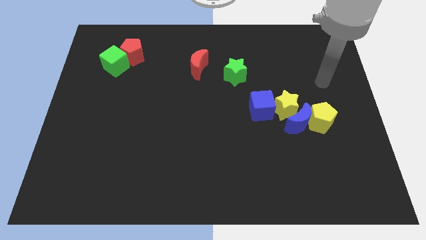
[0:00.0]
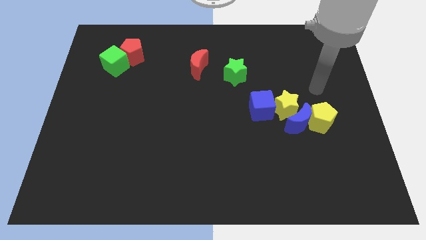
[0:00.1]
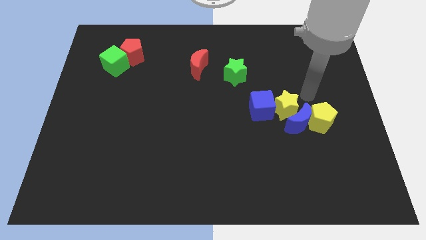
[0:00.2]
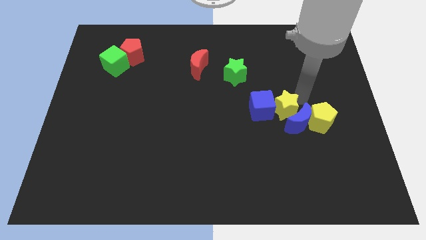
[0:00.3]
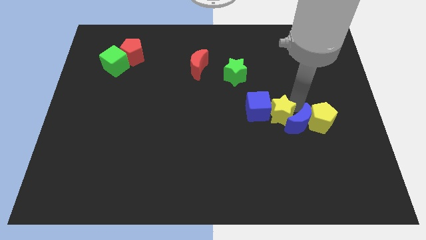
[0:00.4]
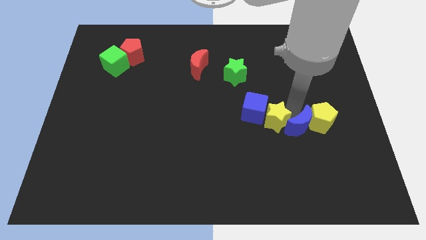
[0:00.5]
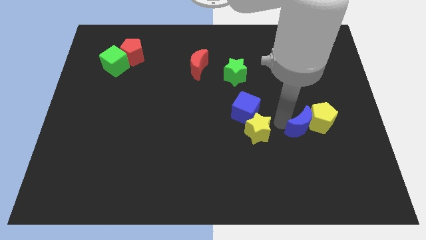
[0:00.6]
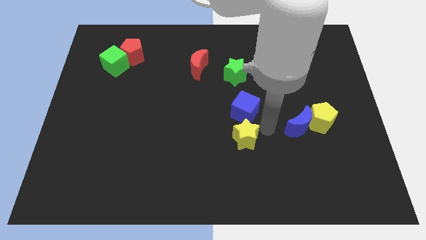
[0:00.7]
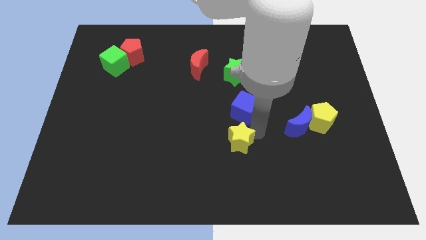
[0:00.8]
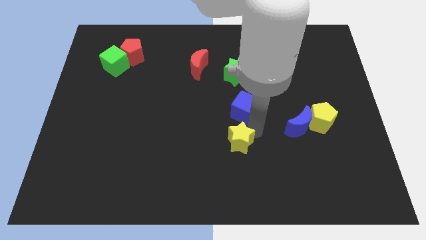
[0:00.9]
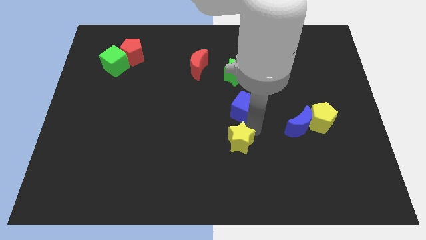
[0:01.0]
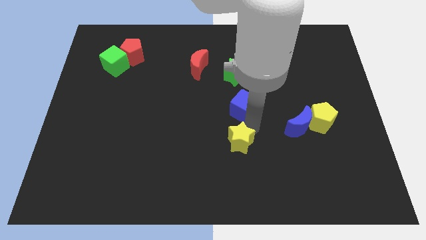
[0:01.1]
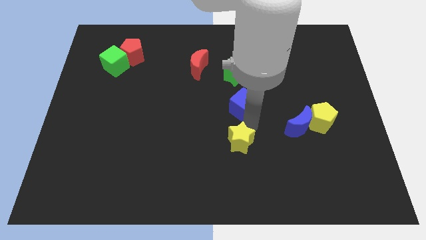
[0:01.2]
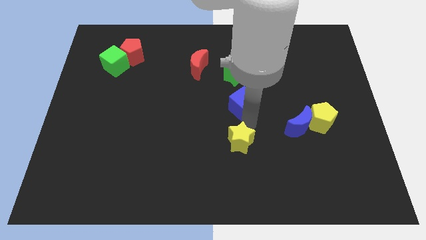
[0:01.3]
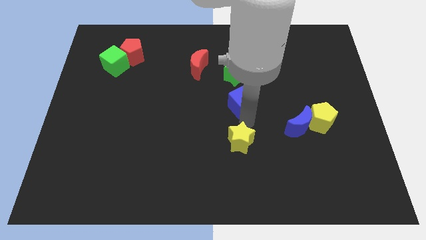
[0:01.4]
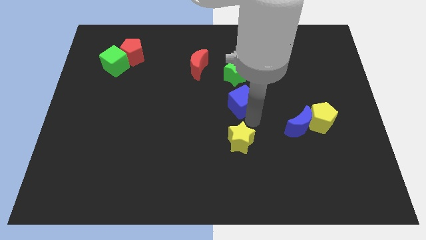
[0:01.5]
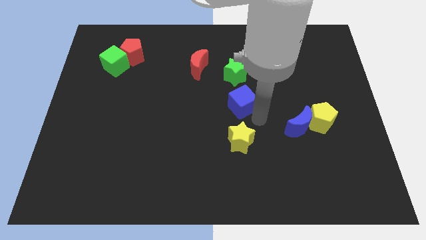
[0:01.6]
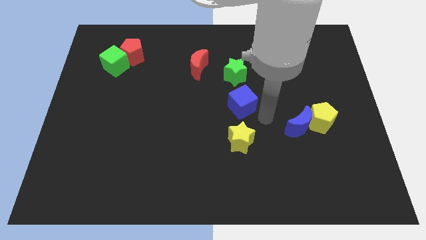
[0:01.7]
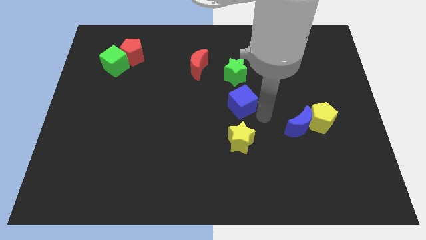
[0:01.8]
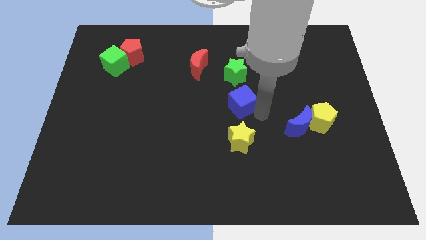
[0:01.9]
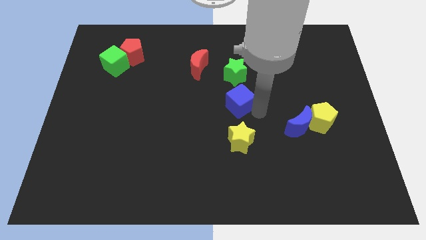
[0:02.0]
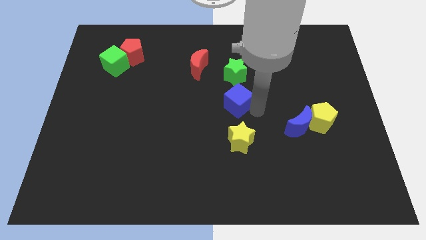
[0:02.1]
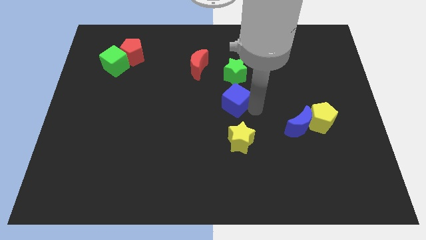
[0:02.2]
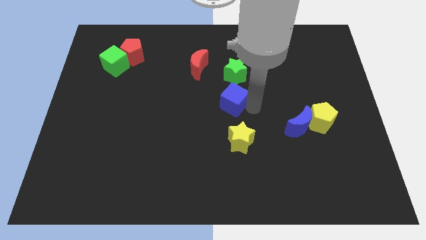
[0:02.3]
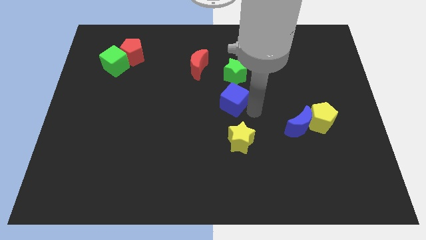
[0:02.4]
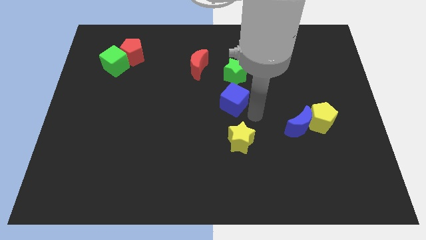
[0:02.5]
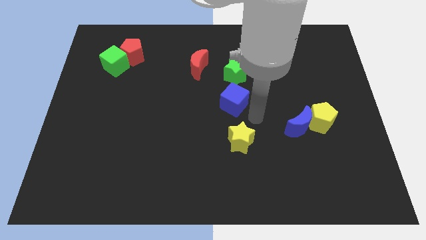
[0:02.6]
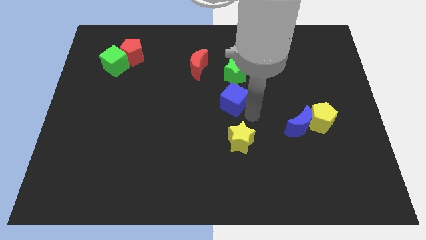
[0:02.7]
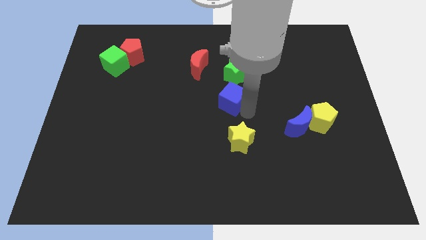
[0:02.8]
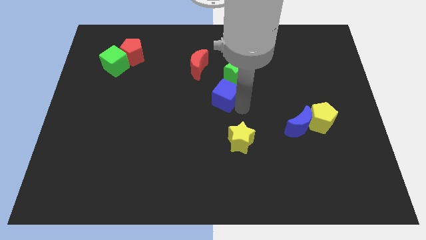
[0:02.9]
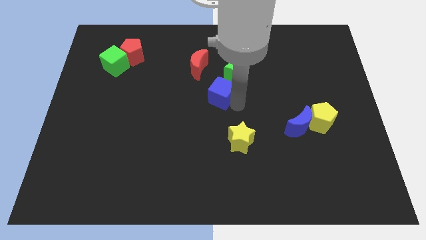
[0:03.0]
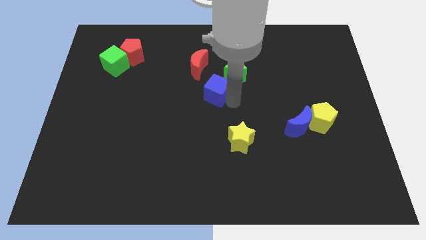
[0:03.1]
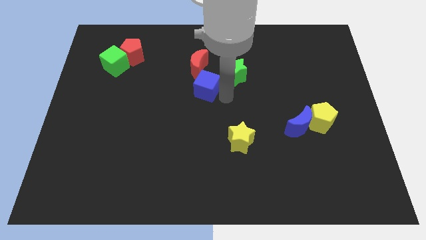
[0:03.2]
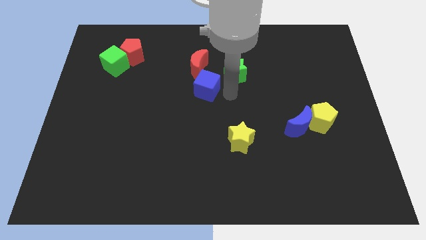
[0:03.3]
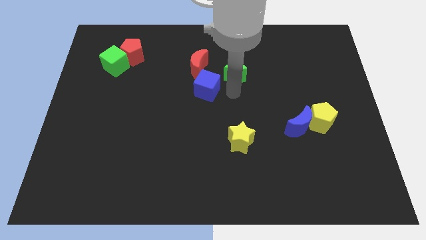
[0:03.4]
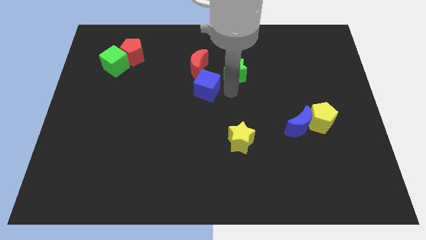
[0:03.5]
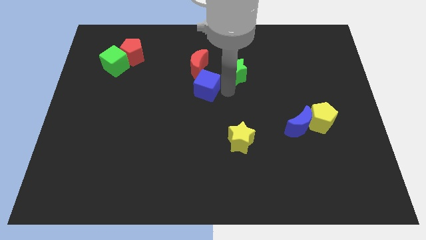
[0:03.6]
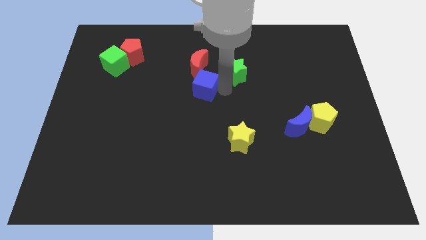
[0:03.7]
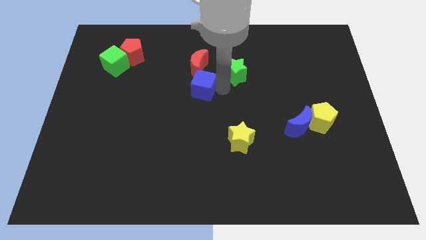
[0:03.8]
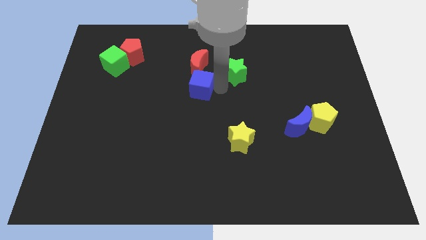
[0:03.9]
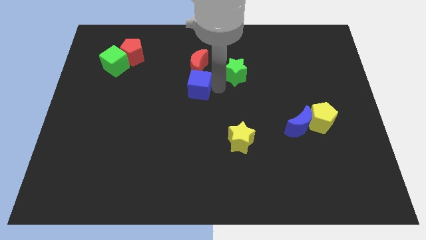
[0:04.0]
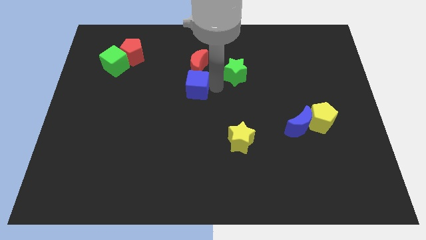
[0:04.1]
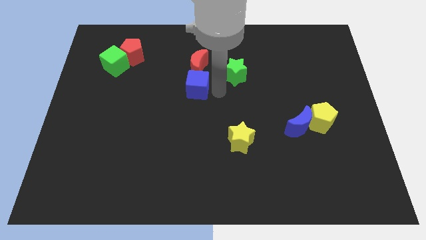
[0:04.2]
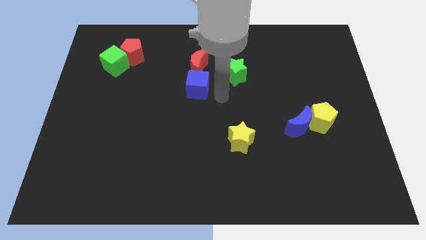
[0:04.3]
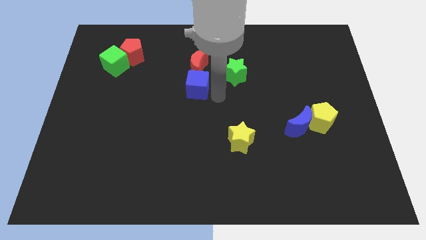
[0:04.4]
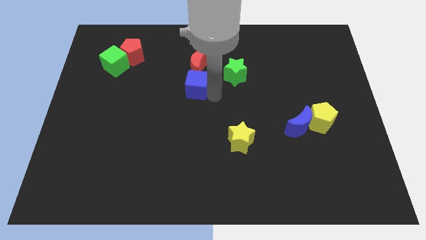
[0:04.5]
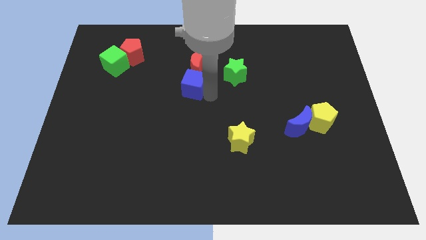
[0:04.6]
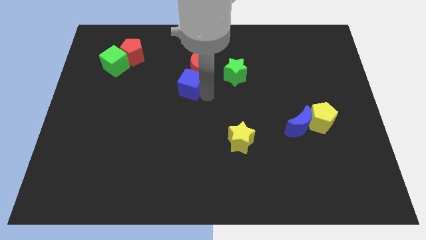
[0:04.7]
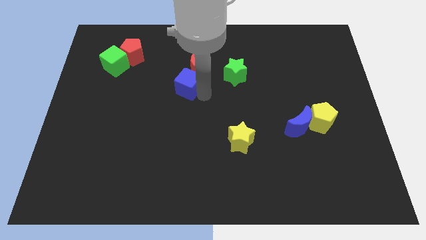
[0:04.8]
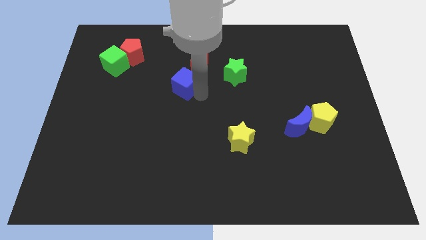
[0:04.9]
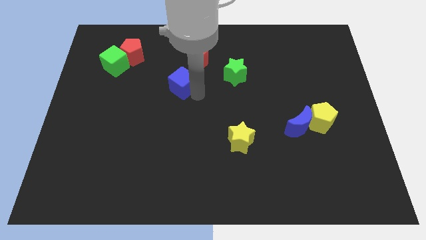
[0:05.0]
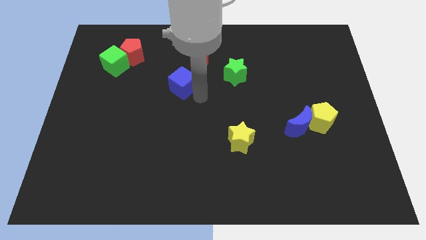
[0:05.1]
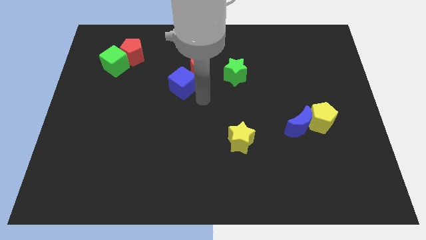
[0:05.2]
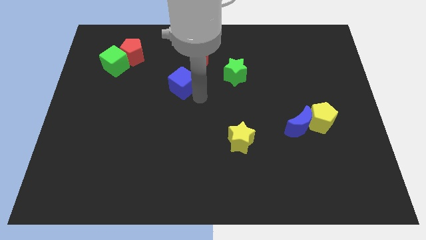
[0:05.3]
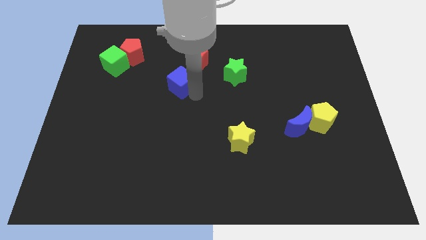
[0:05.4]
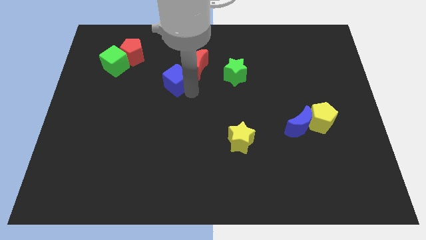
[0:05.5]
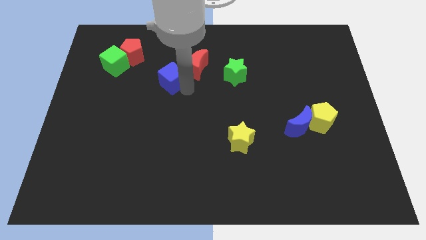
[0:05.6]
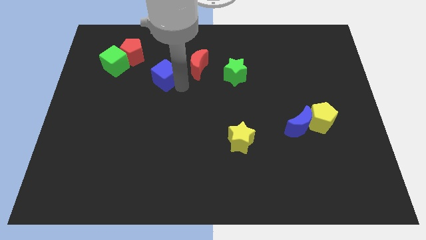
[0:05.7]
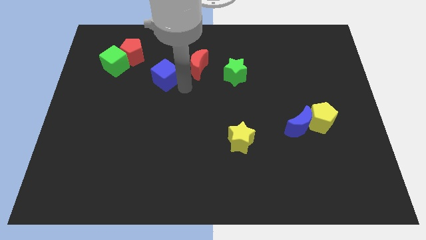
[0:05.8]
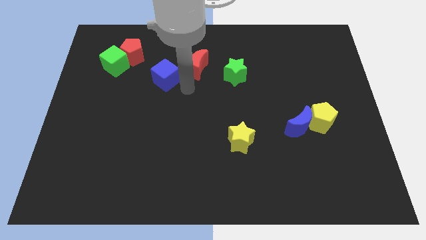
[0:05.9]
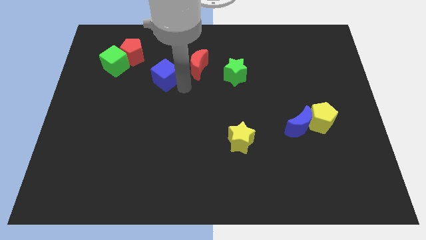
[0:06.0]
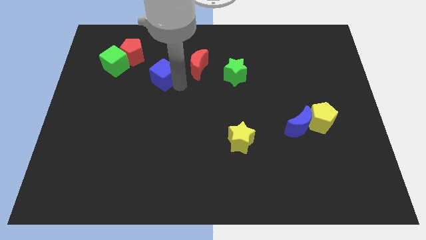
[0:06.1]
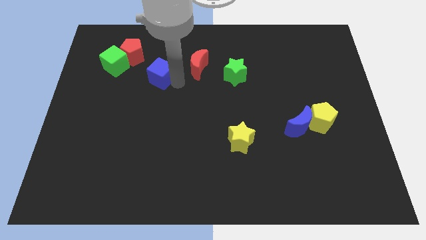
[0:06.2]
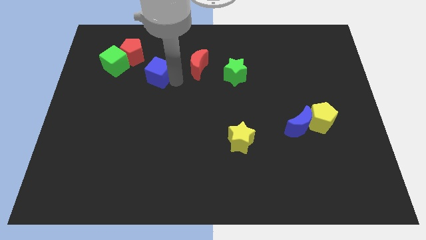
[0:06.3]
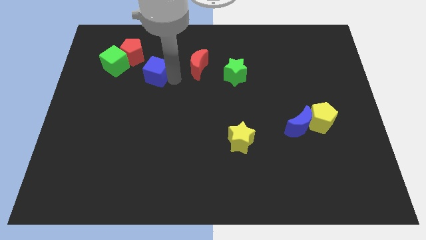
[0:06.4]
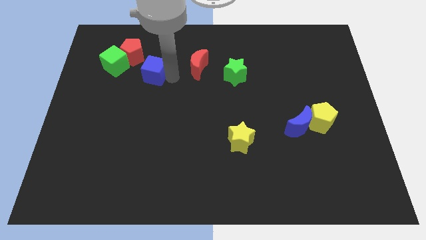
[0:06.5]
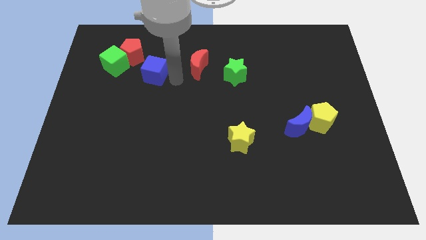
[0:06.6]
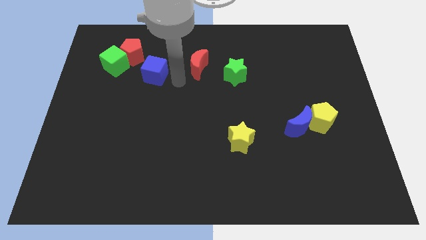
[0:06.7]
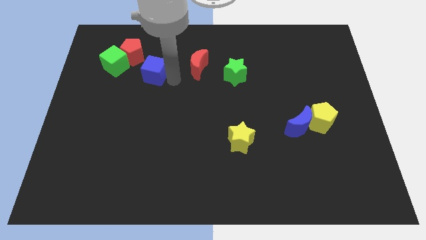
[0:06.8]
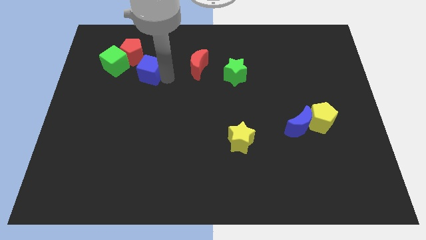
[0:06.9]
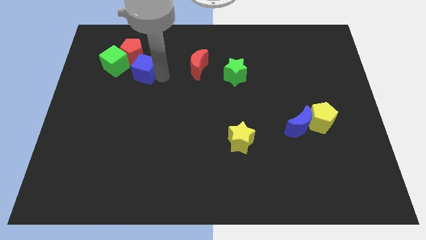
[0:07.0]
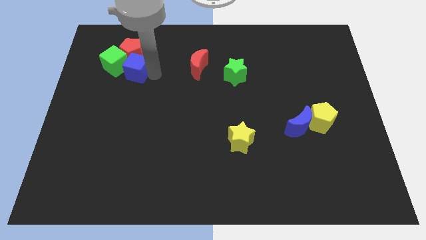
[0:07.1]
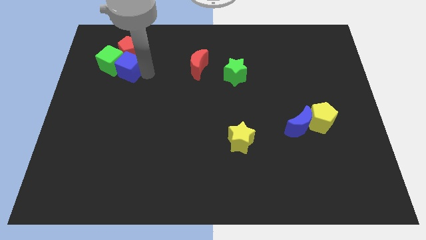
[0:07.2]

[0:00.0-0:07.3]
push the blue cube close to the green cube
